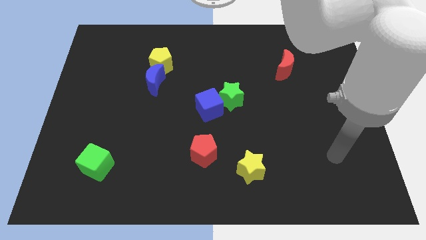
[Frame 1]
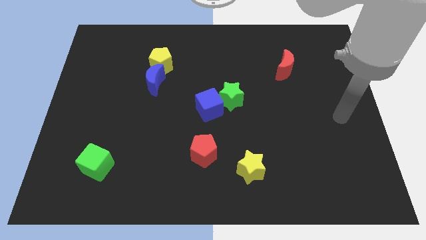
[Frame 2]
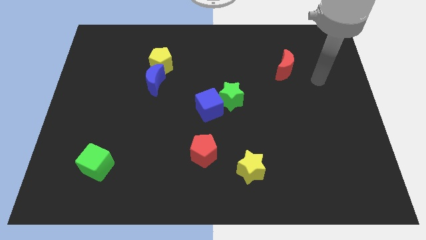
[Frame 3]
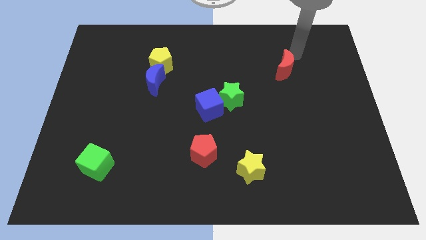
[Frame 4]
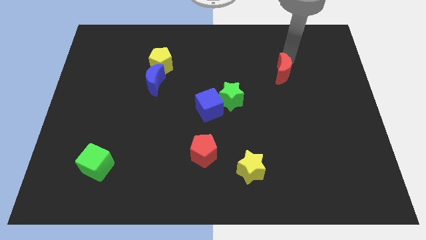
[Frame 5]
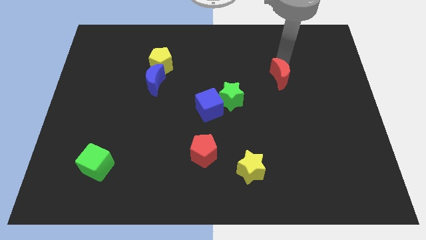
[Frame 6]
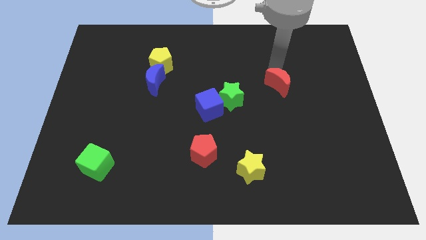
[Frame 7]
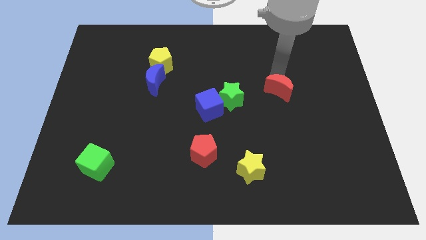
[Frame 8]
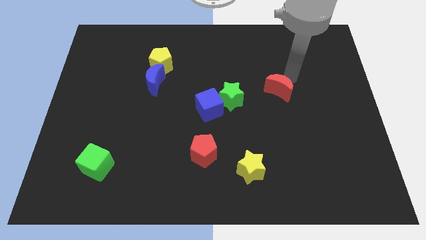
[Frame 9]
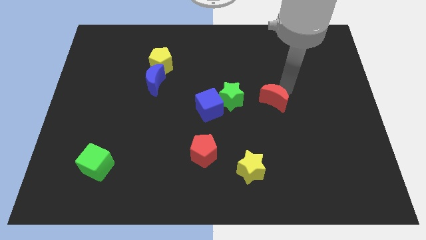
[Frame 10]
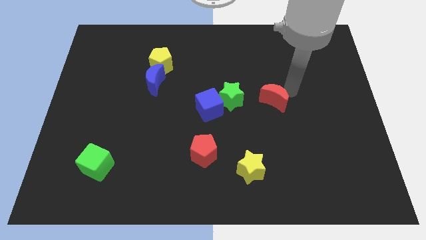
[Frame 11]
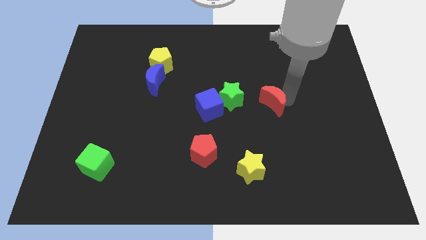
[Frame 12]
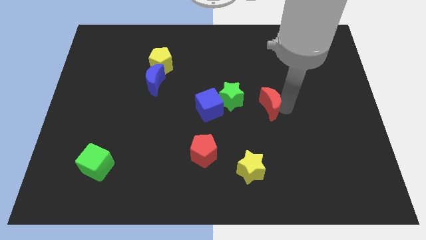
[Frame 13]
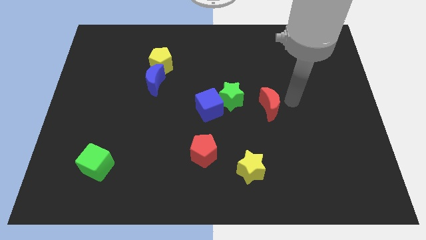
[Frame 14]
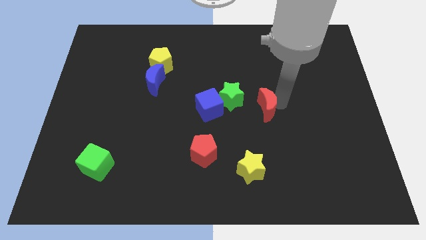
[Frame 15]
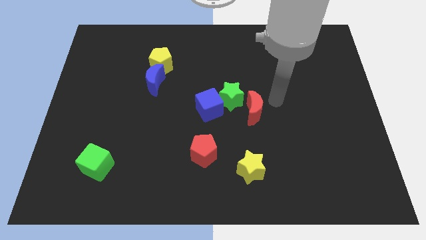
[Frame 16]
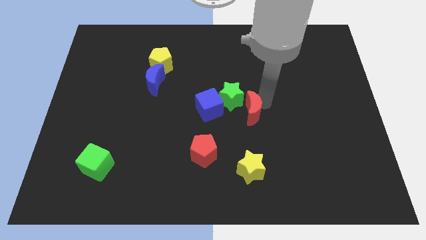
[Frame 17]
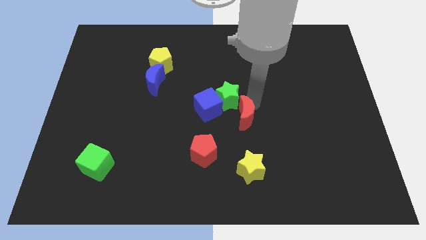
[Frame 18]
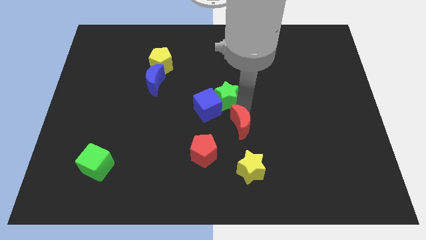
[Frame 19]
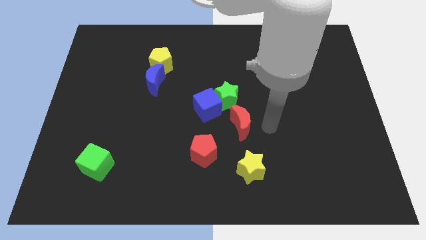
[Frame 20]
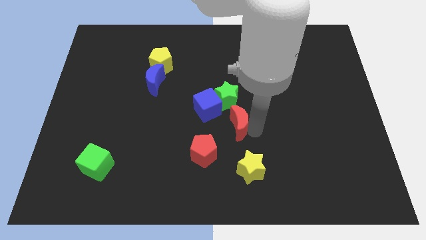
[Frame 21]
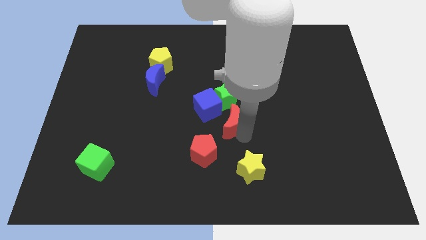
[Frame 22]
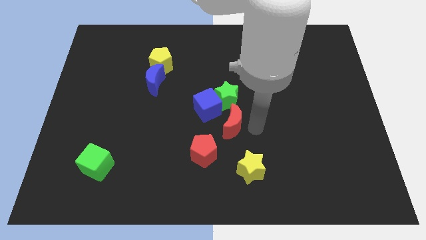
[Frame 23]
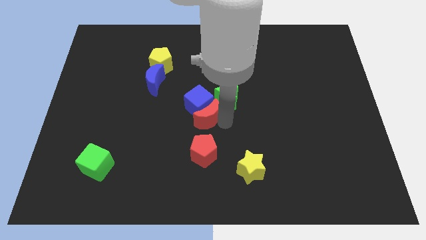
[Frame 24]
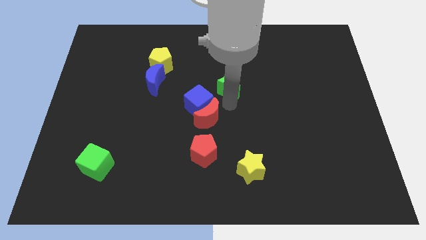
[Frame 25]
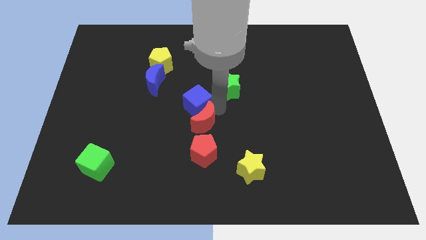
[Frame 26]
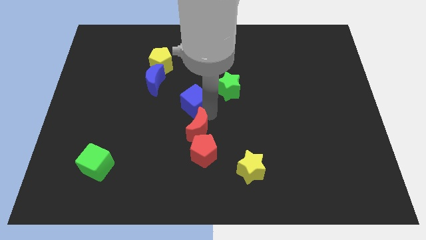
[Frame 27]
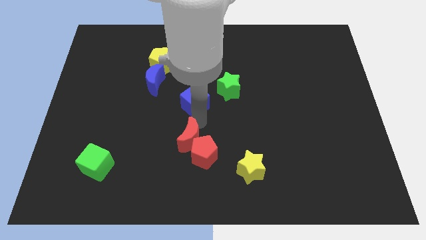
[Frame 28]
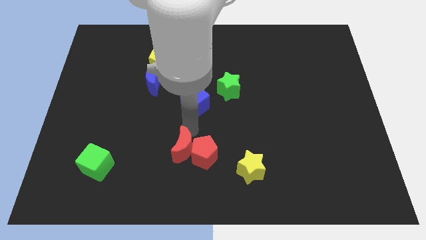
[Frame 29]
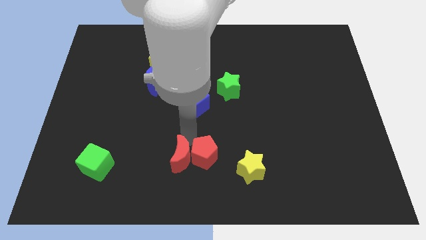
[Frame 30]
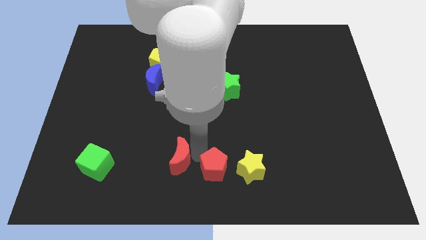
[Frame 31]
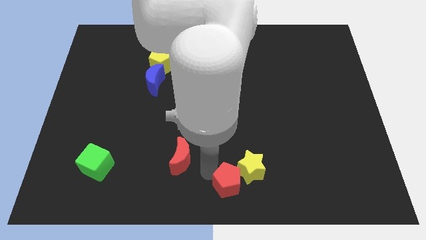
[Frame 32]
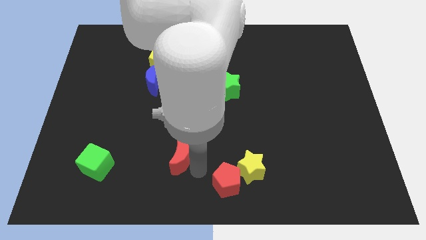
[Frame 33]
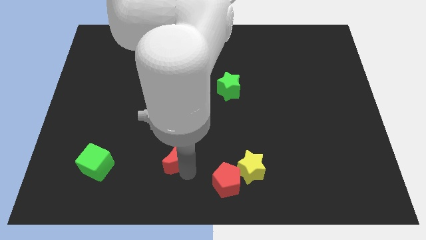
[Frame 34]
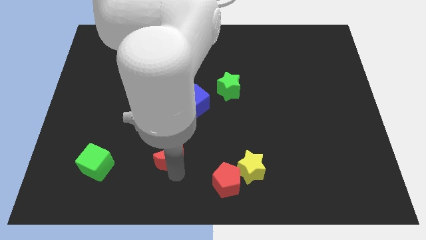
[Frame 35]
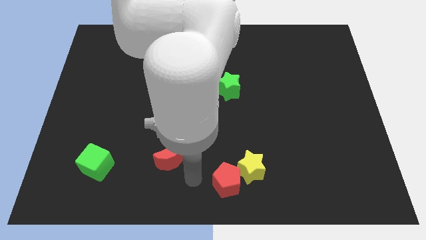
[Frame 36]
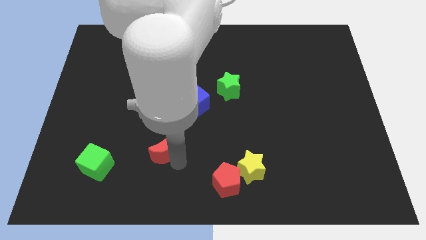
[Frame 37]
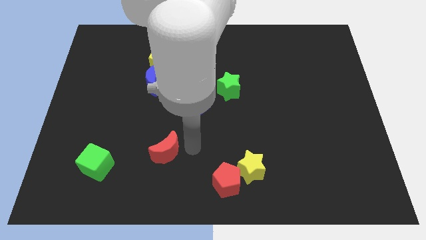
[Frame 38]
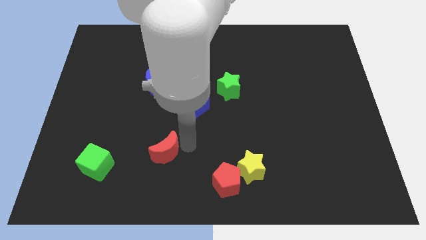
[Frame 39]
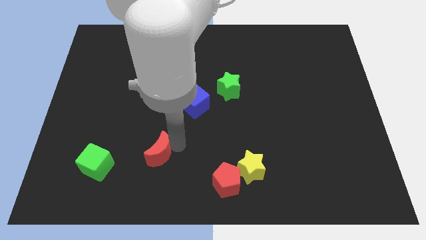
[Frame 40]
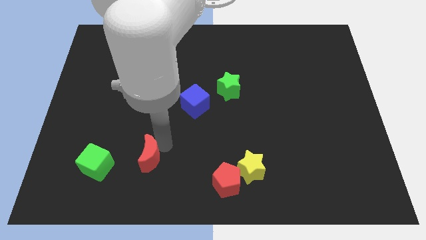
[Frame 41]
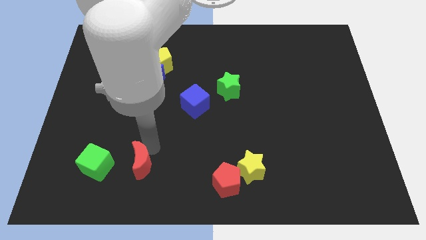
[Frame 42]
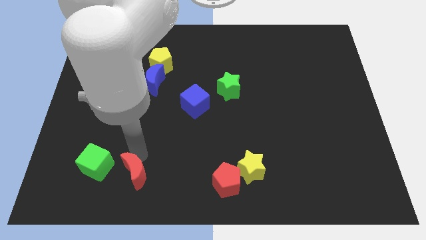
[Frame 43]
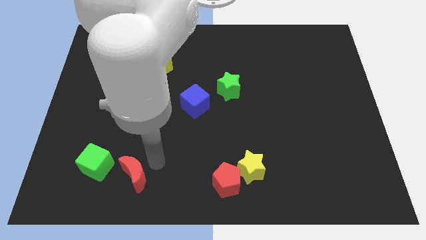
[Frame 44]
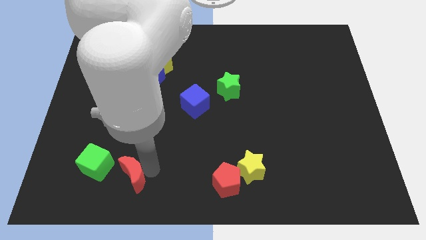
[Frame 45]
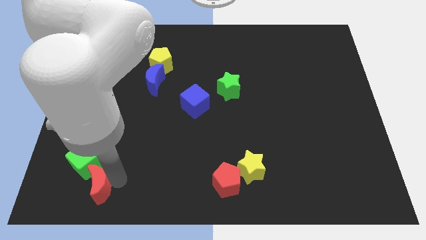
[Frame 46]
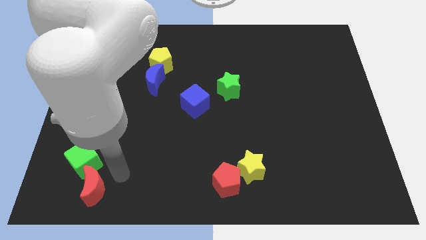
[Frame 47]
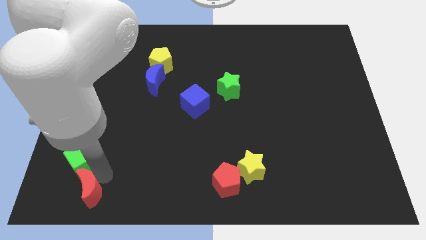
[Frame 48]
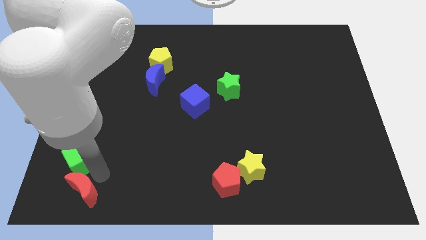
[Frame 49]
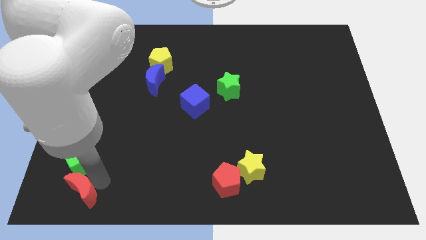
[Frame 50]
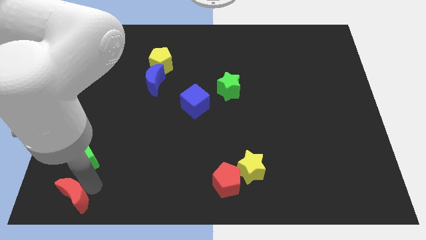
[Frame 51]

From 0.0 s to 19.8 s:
push the red moon to the bottom left corner

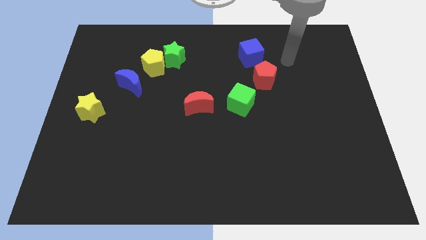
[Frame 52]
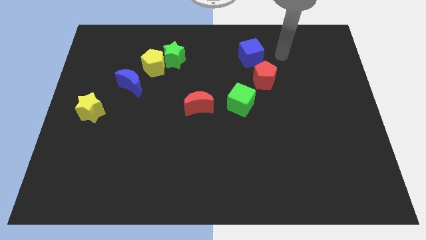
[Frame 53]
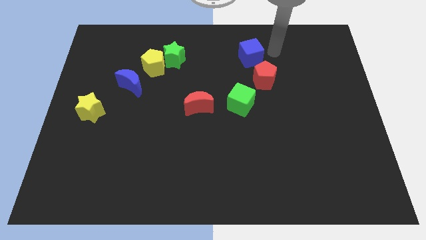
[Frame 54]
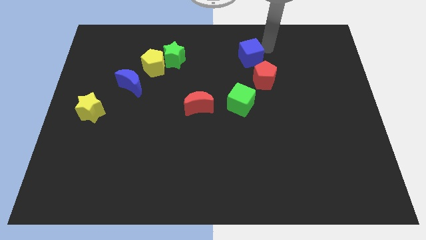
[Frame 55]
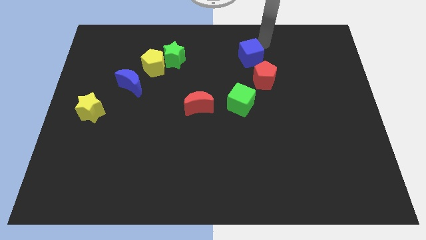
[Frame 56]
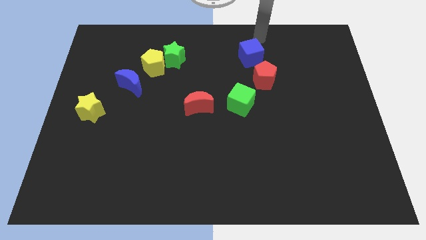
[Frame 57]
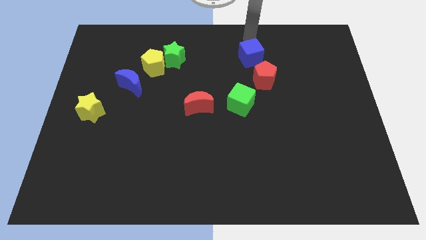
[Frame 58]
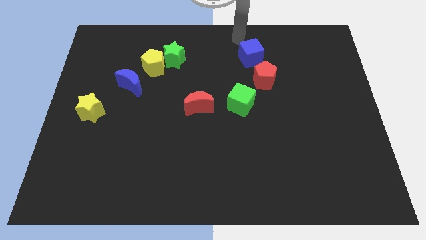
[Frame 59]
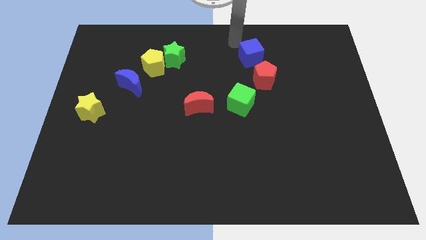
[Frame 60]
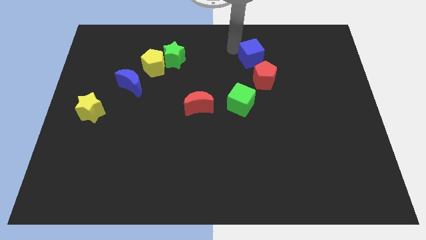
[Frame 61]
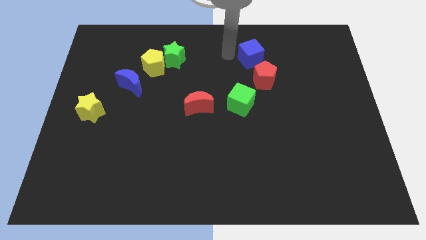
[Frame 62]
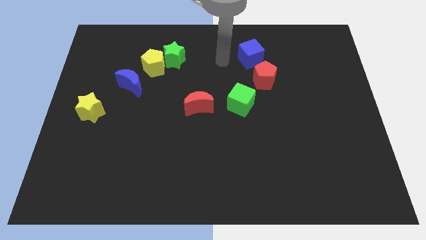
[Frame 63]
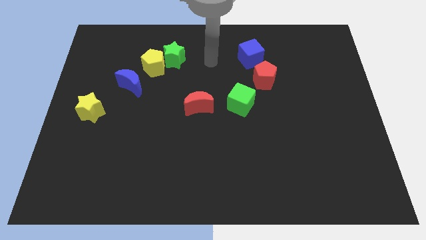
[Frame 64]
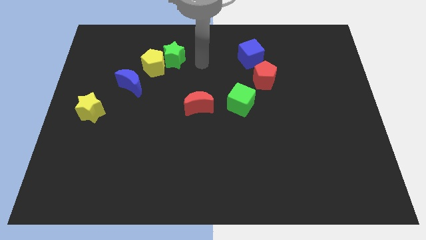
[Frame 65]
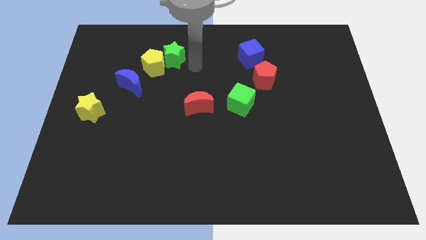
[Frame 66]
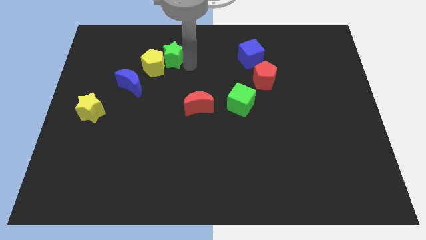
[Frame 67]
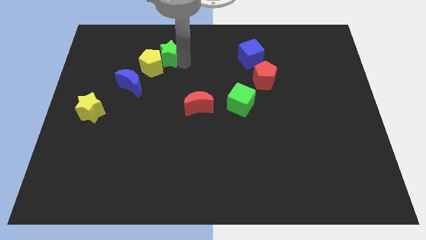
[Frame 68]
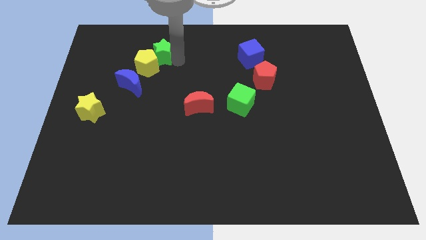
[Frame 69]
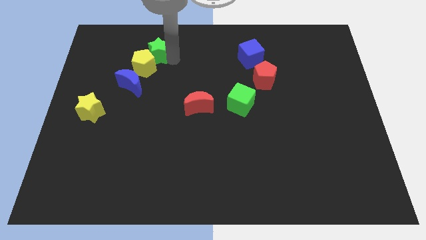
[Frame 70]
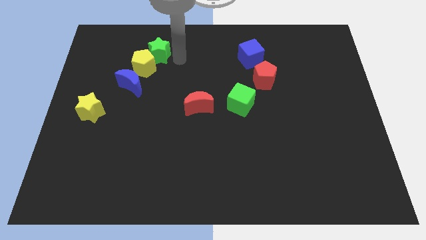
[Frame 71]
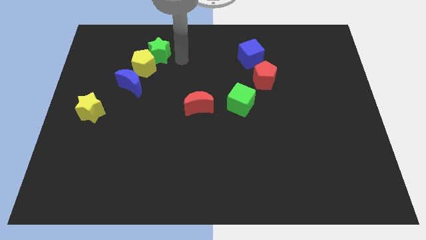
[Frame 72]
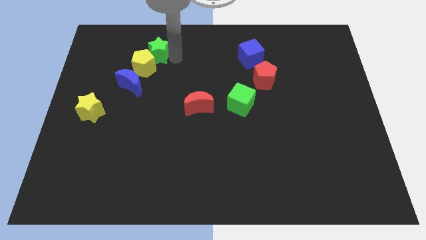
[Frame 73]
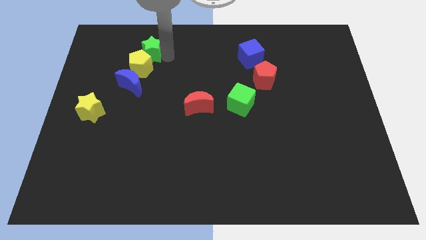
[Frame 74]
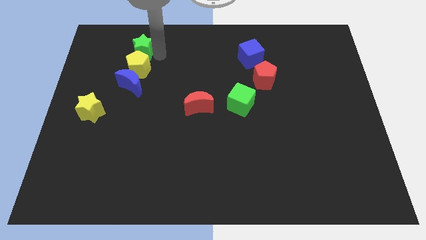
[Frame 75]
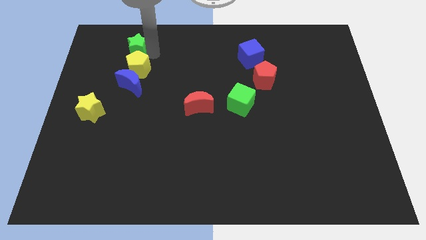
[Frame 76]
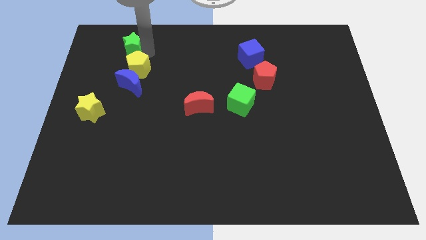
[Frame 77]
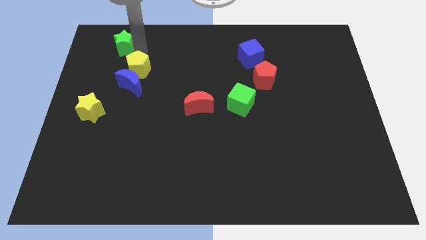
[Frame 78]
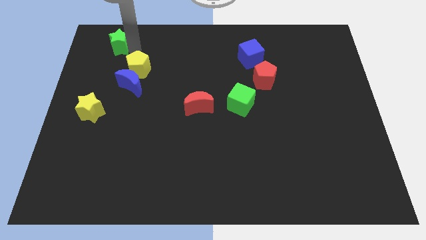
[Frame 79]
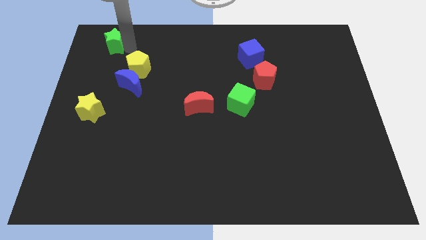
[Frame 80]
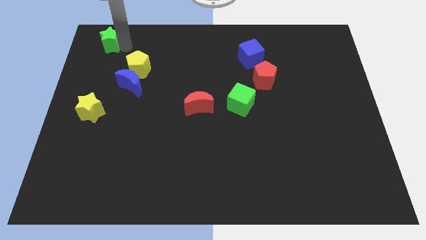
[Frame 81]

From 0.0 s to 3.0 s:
slide the green star to the top left of the board
